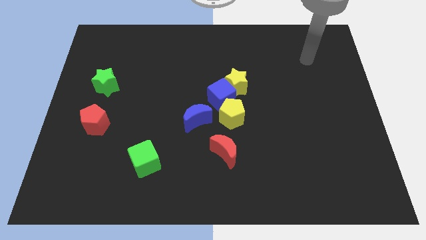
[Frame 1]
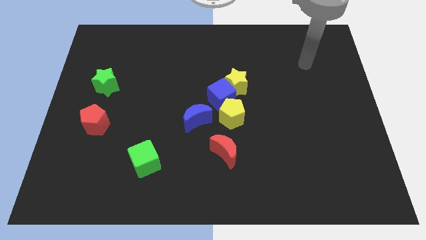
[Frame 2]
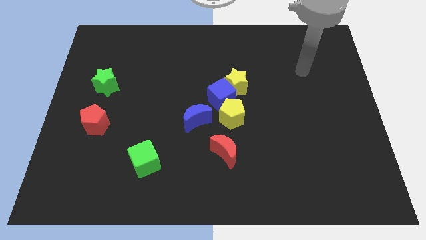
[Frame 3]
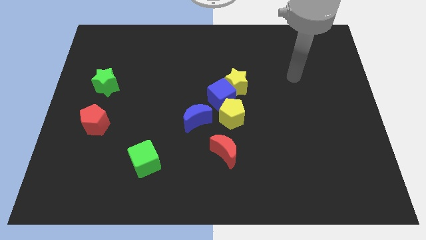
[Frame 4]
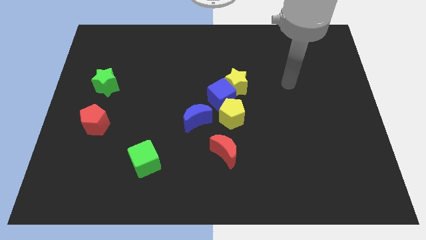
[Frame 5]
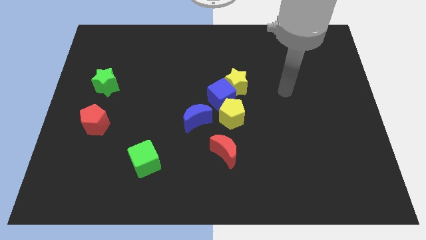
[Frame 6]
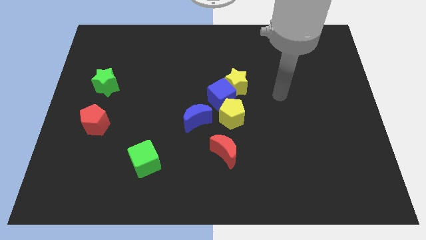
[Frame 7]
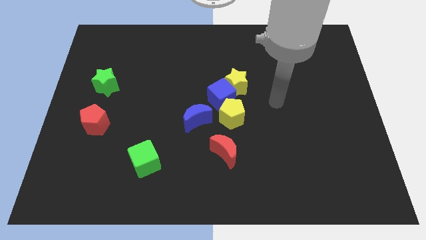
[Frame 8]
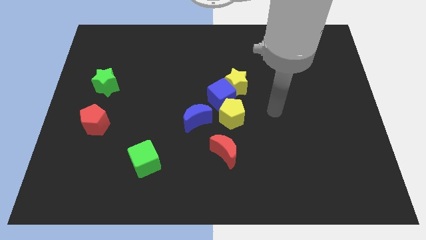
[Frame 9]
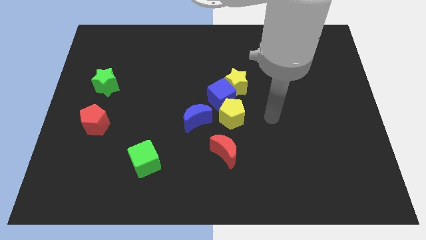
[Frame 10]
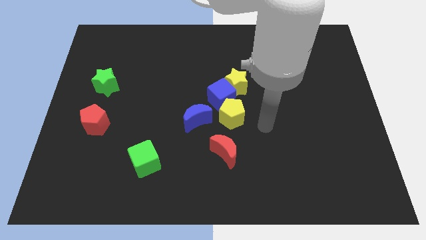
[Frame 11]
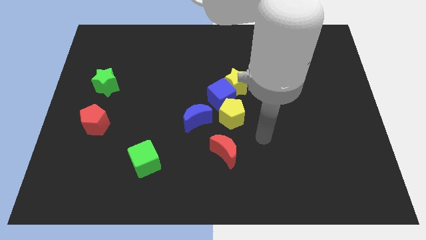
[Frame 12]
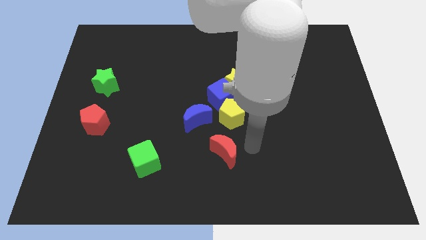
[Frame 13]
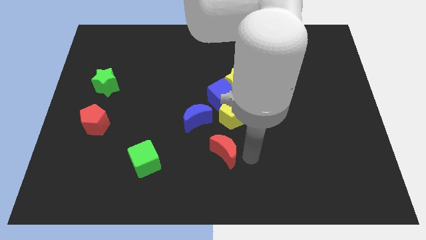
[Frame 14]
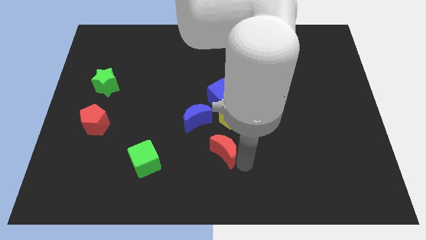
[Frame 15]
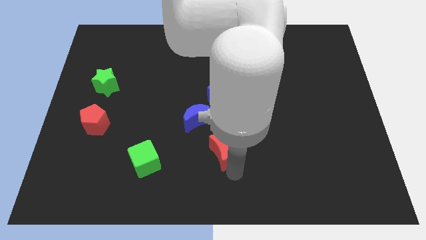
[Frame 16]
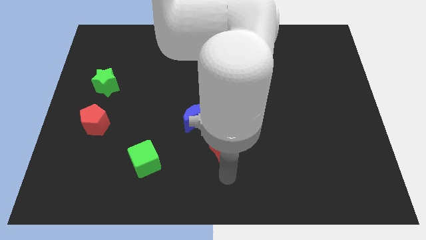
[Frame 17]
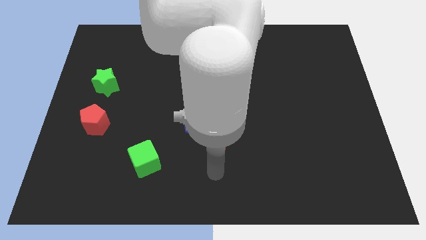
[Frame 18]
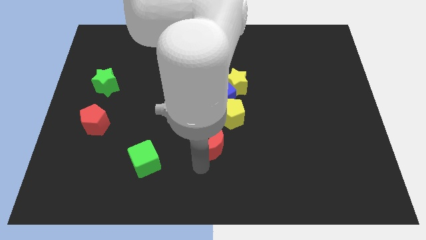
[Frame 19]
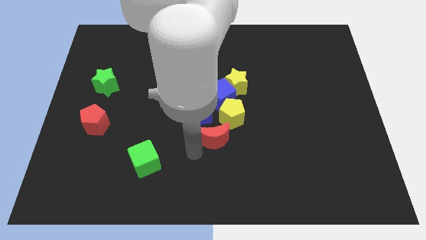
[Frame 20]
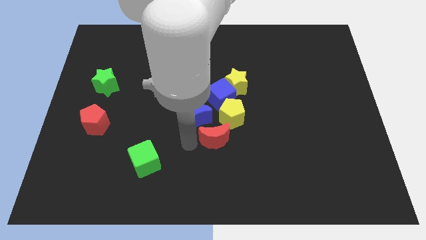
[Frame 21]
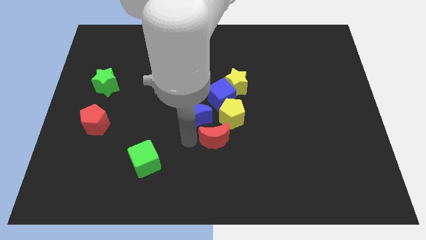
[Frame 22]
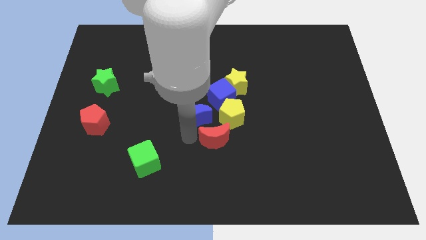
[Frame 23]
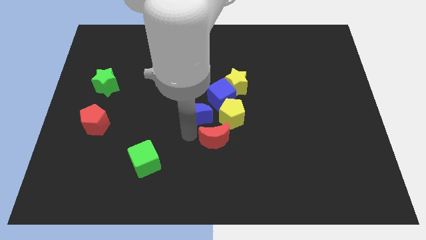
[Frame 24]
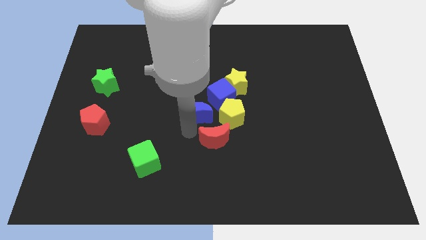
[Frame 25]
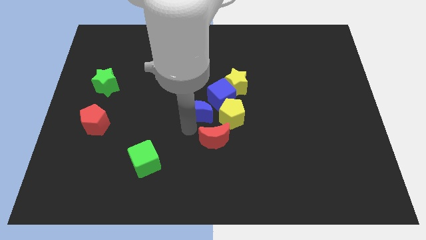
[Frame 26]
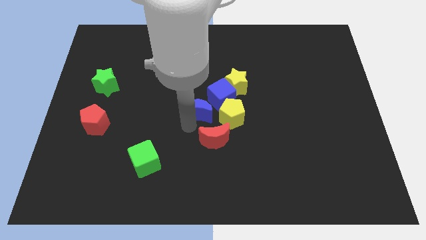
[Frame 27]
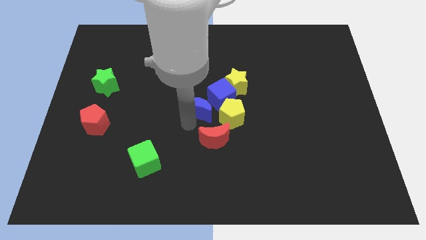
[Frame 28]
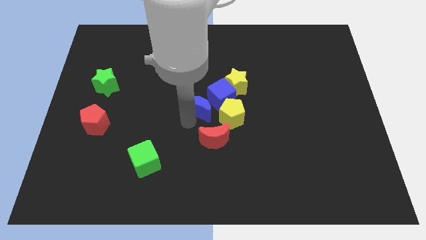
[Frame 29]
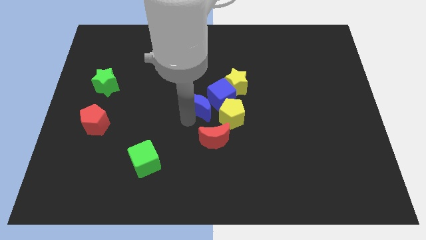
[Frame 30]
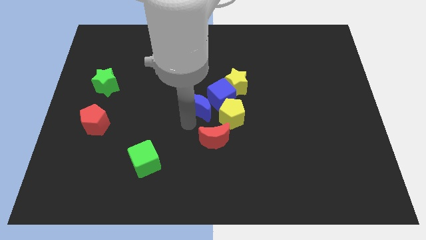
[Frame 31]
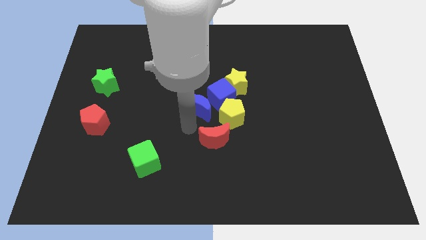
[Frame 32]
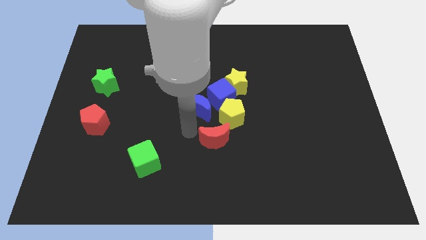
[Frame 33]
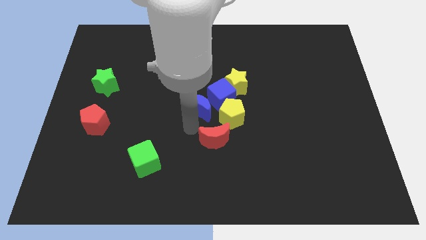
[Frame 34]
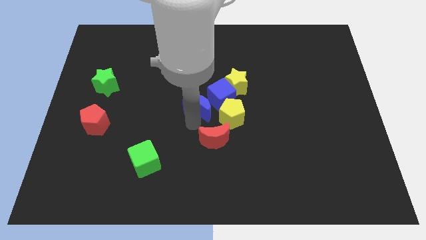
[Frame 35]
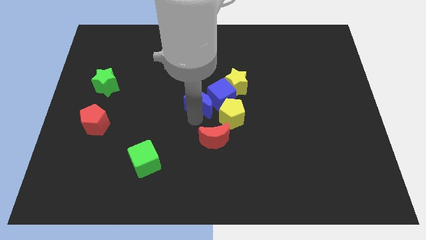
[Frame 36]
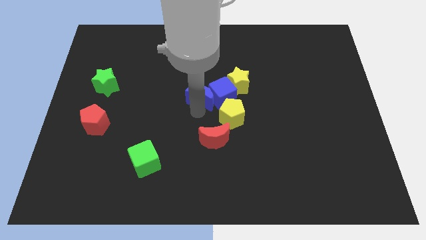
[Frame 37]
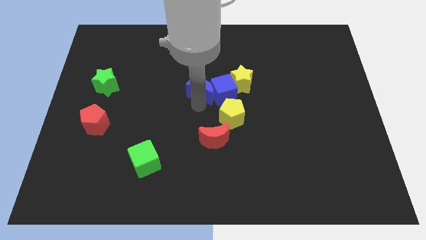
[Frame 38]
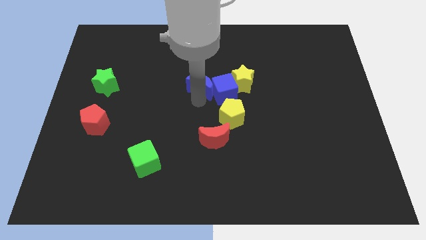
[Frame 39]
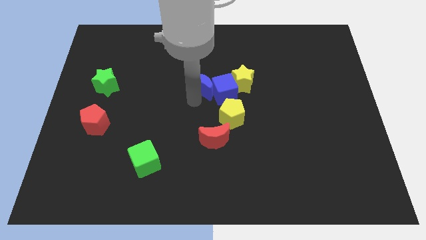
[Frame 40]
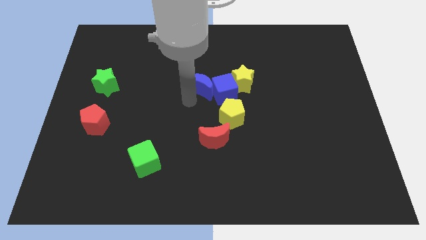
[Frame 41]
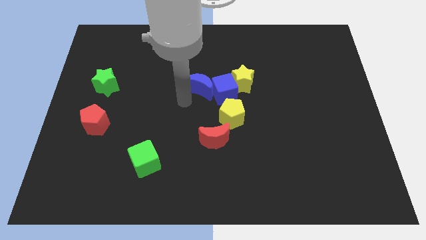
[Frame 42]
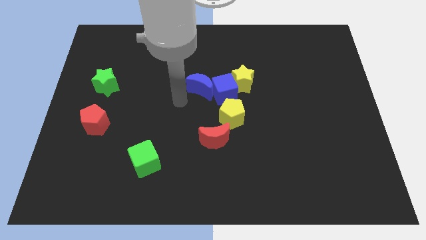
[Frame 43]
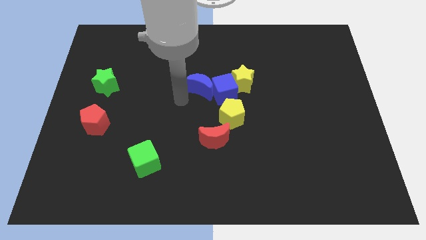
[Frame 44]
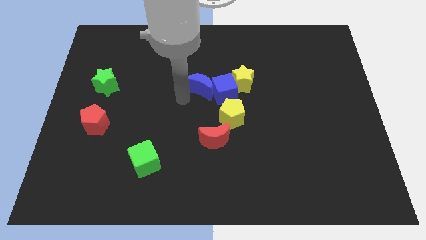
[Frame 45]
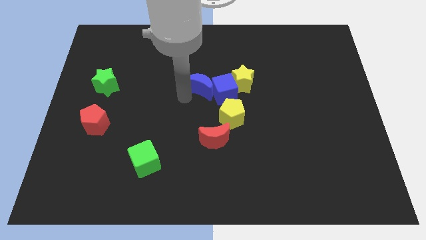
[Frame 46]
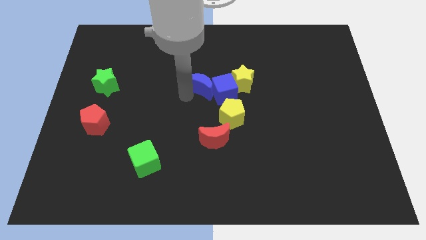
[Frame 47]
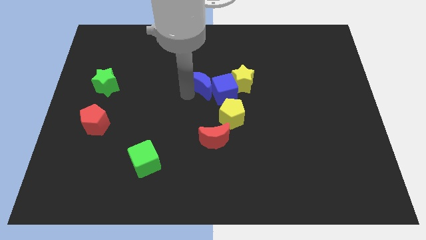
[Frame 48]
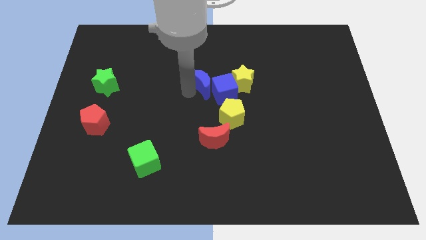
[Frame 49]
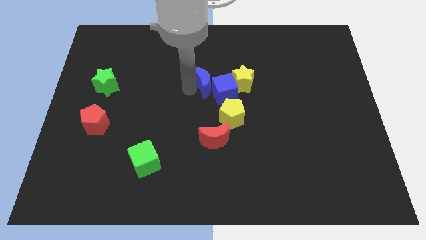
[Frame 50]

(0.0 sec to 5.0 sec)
slide the blue moon upwards and right somewhat

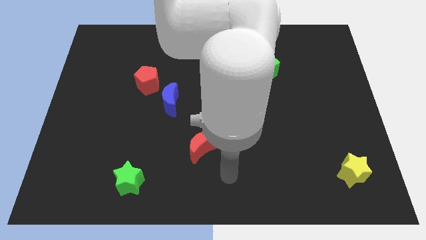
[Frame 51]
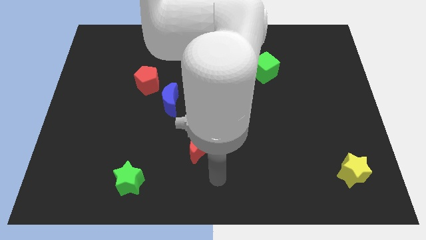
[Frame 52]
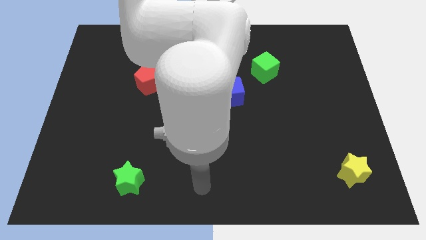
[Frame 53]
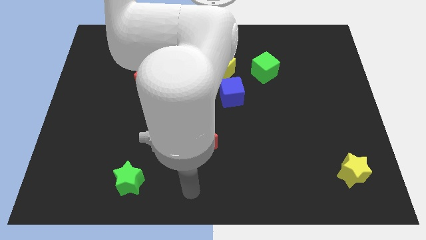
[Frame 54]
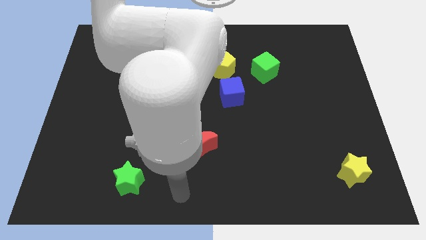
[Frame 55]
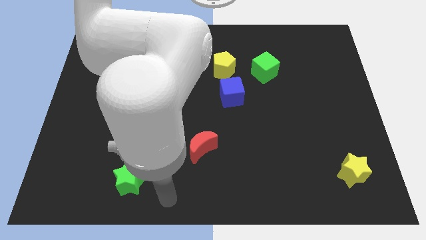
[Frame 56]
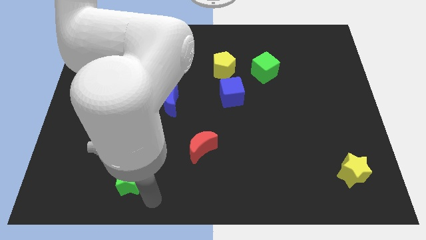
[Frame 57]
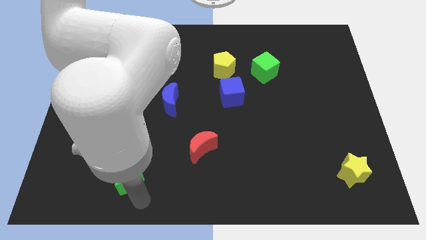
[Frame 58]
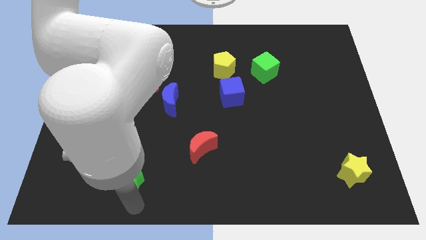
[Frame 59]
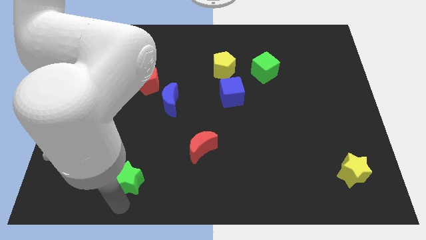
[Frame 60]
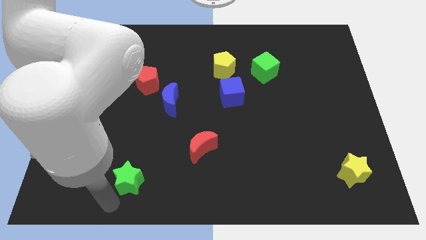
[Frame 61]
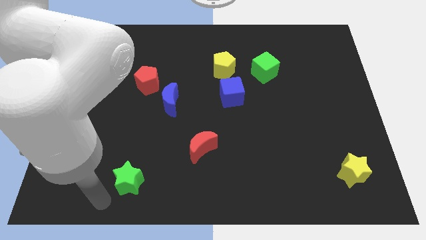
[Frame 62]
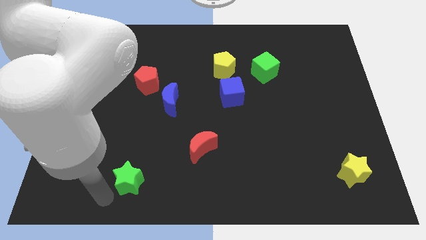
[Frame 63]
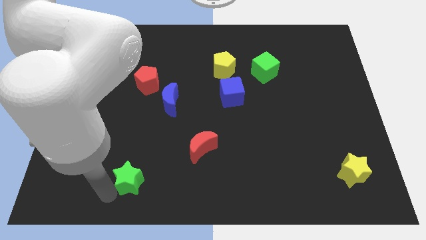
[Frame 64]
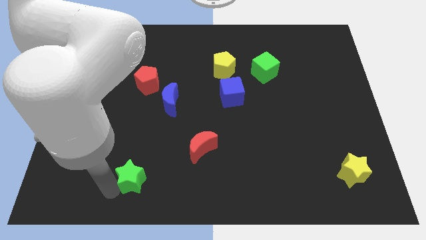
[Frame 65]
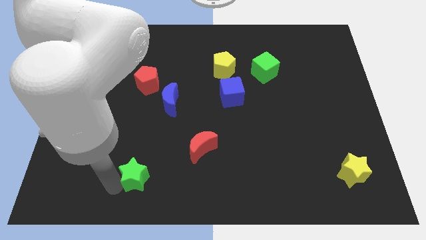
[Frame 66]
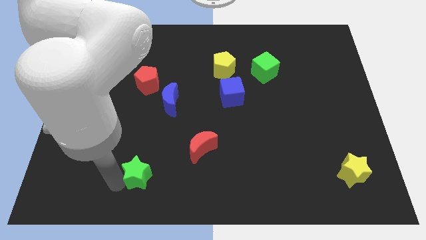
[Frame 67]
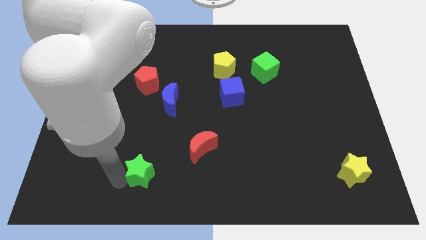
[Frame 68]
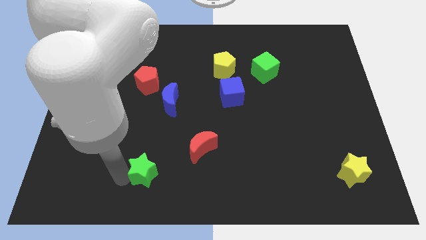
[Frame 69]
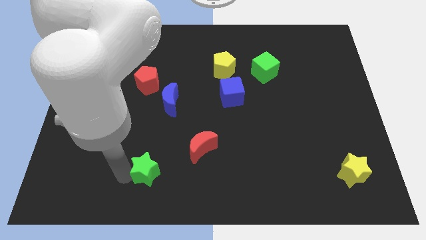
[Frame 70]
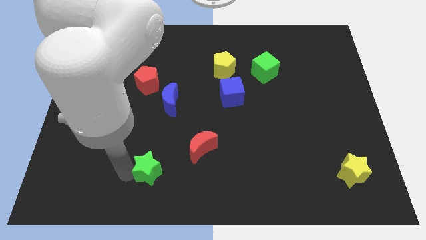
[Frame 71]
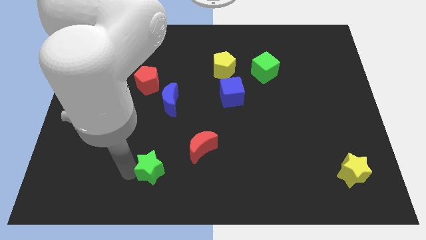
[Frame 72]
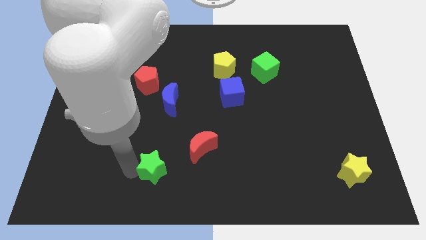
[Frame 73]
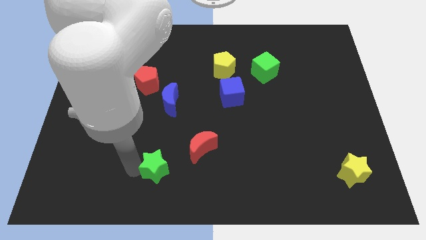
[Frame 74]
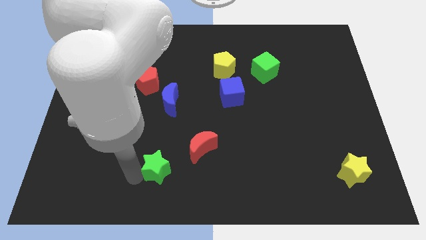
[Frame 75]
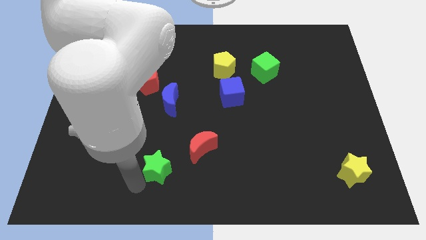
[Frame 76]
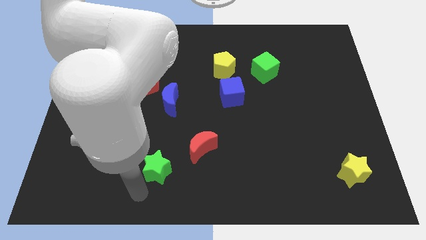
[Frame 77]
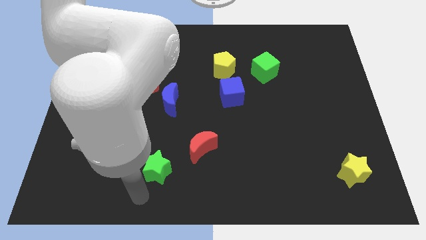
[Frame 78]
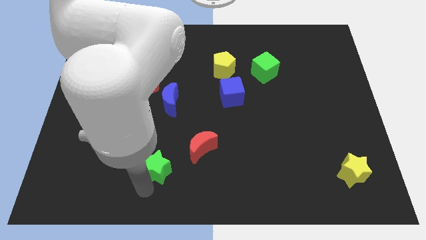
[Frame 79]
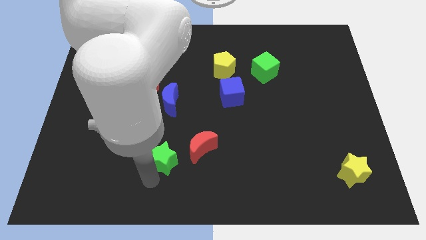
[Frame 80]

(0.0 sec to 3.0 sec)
move the green star upwards and to the right a little

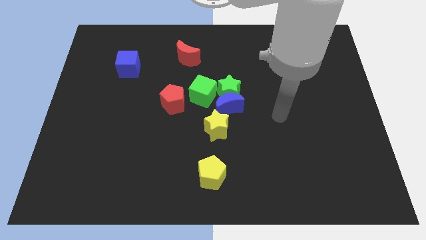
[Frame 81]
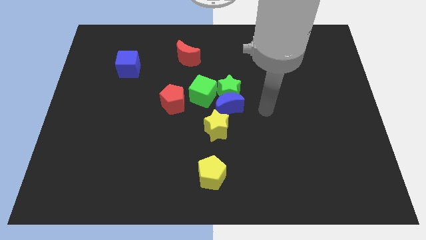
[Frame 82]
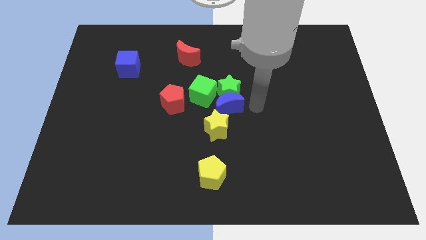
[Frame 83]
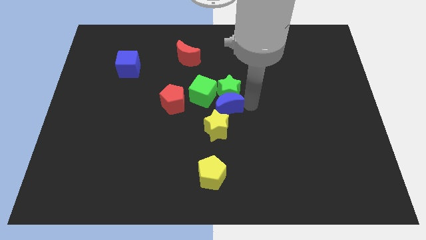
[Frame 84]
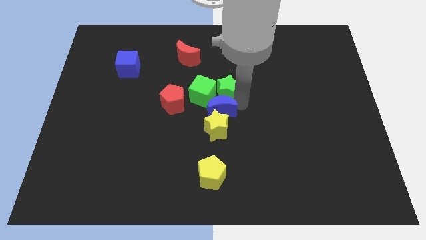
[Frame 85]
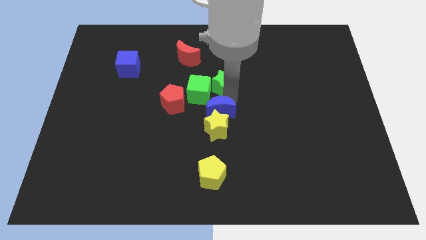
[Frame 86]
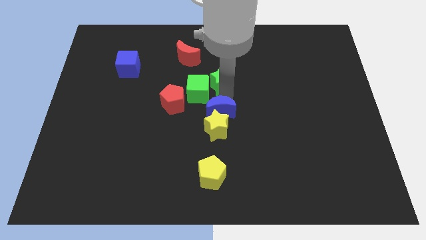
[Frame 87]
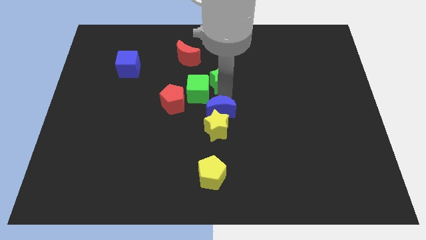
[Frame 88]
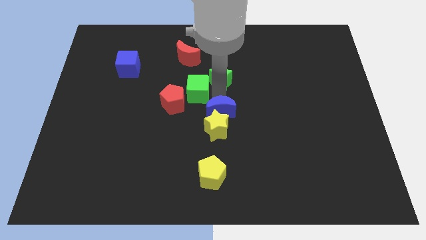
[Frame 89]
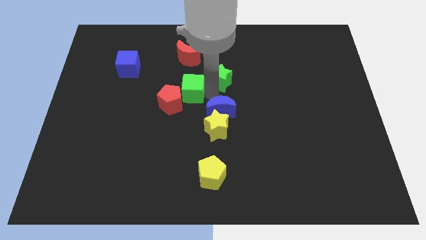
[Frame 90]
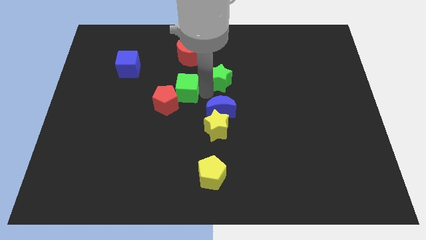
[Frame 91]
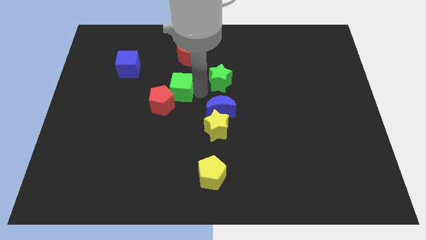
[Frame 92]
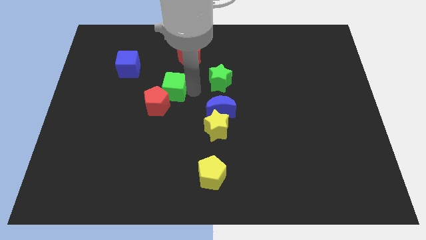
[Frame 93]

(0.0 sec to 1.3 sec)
slightly push the green cube to the left
